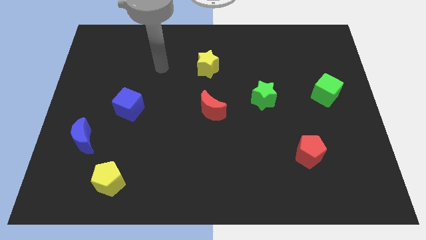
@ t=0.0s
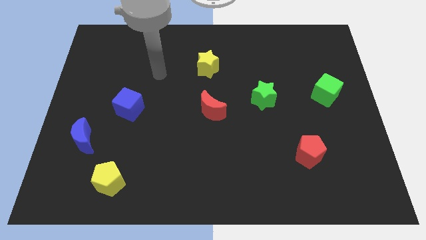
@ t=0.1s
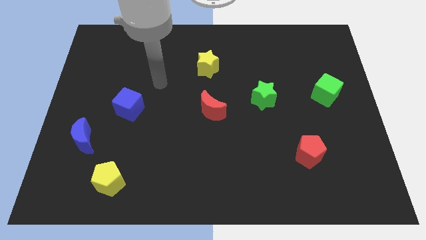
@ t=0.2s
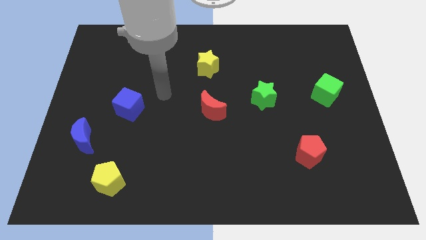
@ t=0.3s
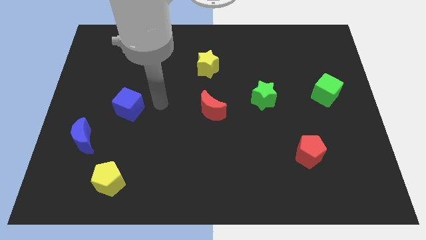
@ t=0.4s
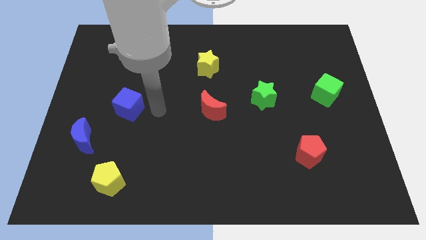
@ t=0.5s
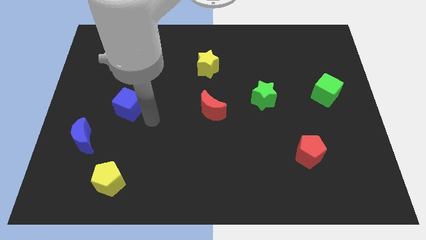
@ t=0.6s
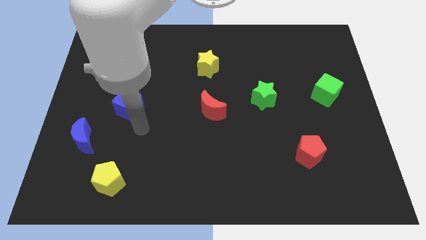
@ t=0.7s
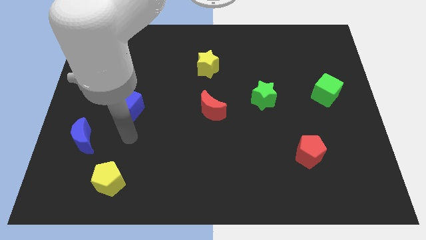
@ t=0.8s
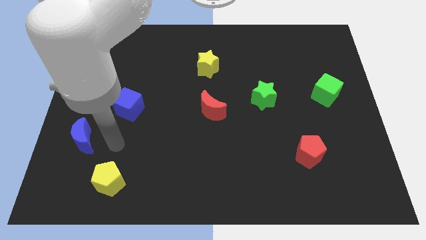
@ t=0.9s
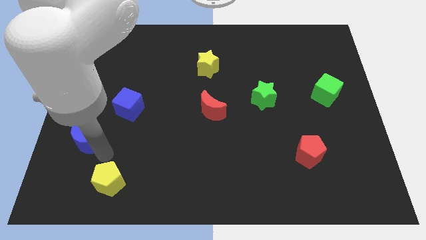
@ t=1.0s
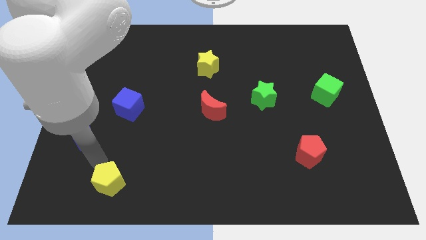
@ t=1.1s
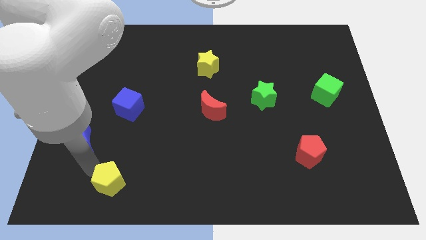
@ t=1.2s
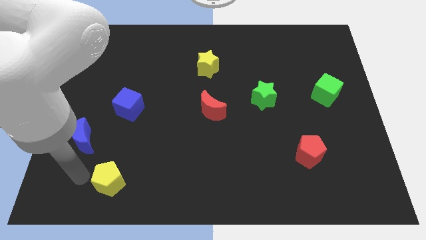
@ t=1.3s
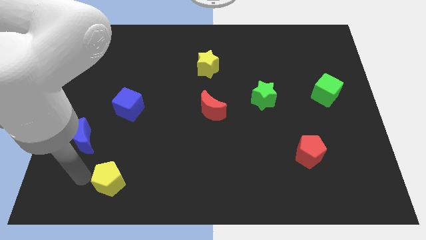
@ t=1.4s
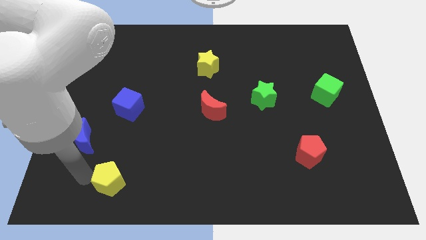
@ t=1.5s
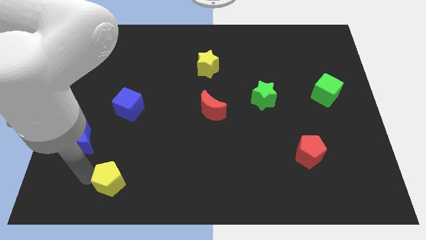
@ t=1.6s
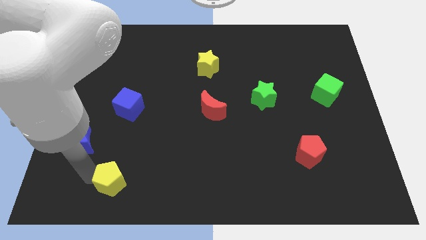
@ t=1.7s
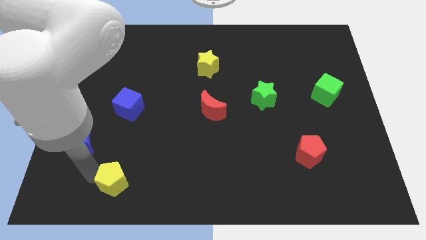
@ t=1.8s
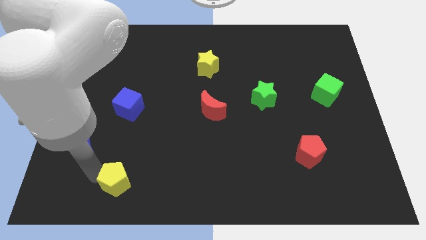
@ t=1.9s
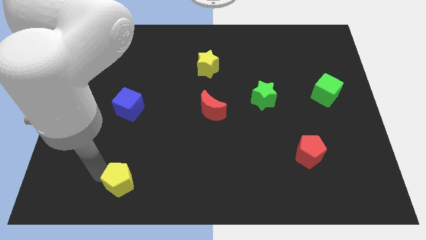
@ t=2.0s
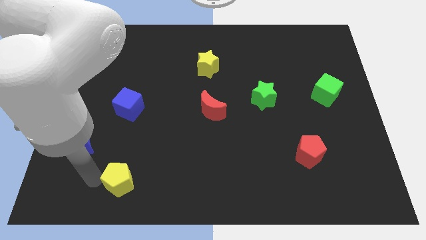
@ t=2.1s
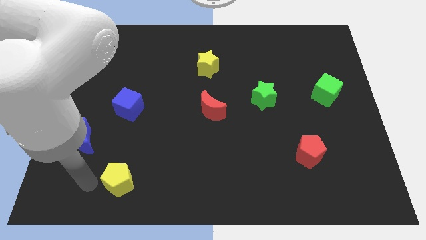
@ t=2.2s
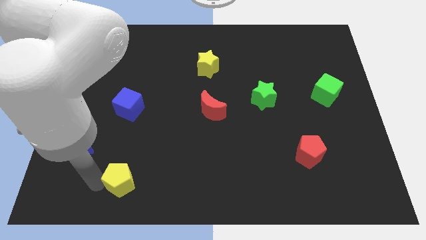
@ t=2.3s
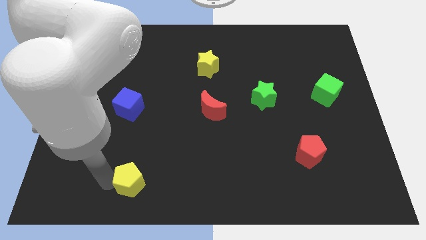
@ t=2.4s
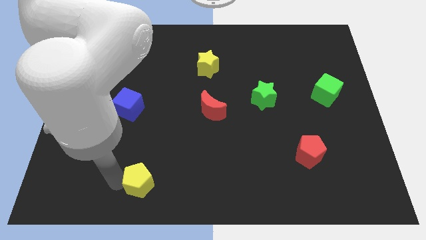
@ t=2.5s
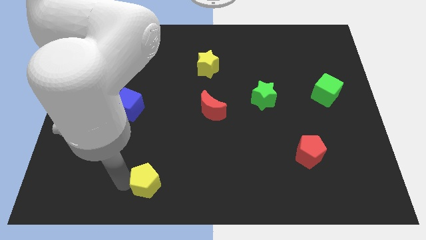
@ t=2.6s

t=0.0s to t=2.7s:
slide the yellow pentagon right slightly

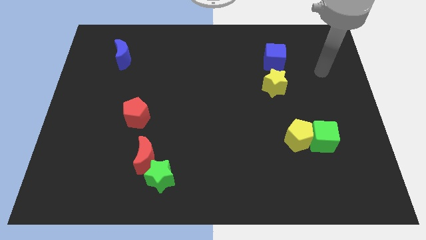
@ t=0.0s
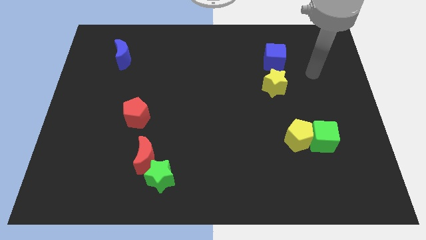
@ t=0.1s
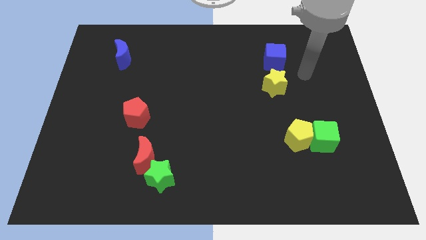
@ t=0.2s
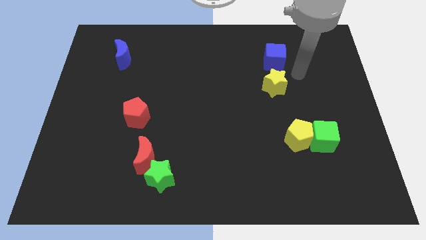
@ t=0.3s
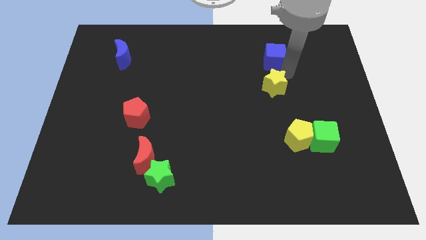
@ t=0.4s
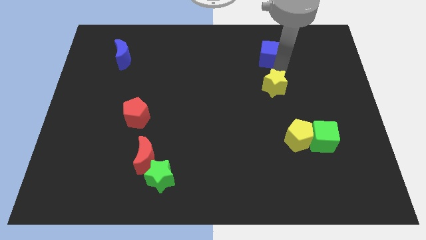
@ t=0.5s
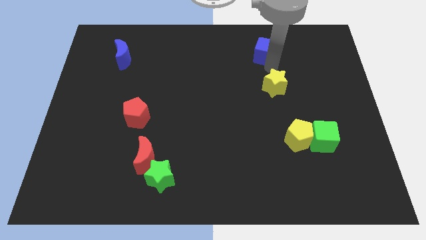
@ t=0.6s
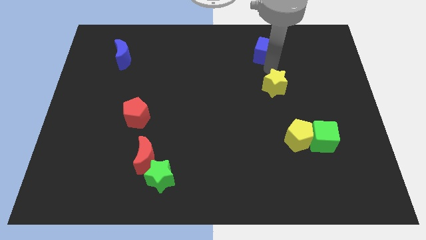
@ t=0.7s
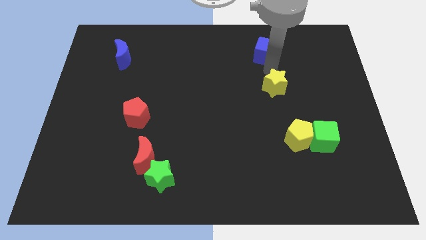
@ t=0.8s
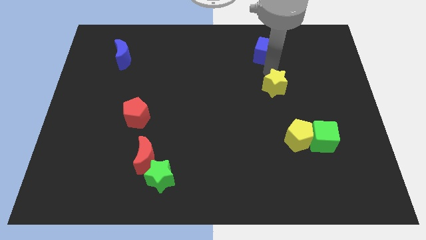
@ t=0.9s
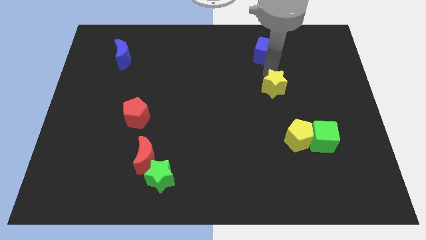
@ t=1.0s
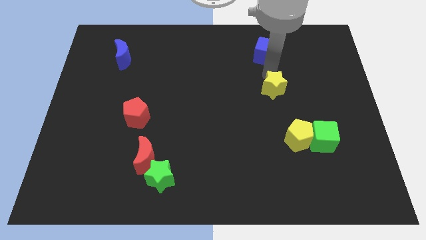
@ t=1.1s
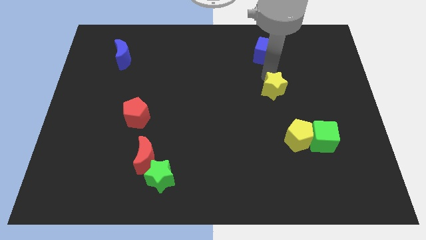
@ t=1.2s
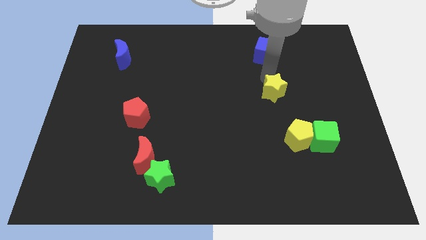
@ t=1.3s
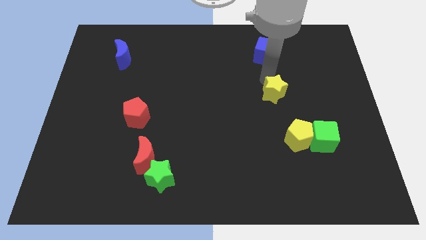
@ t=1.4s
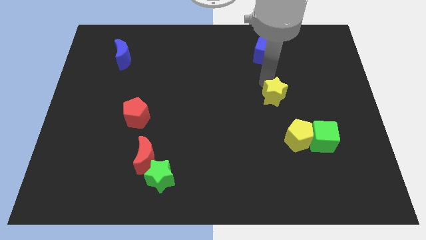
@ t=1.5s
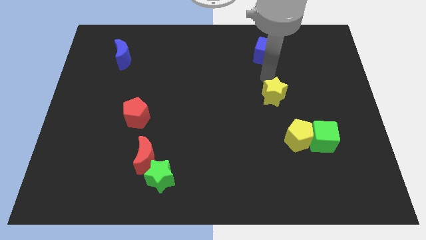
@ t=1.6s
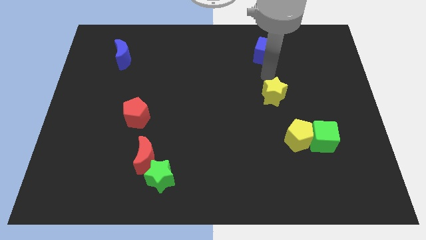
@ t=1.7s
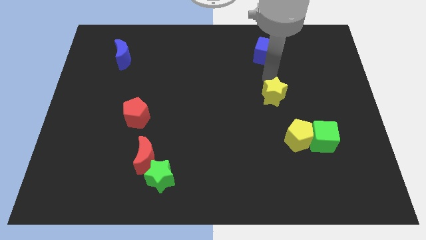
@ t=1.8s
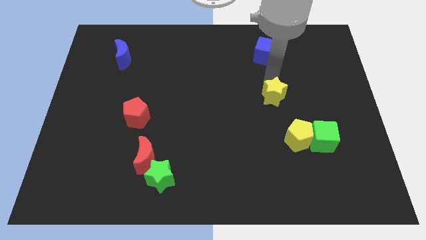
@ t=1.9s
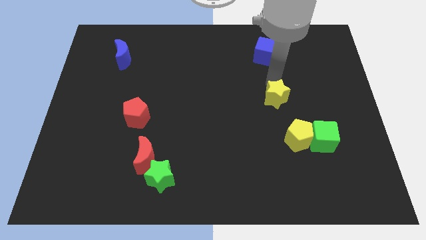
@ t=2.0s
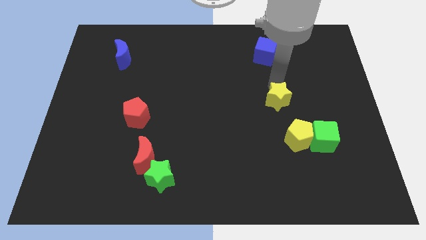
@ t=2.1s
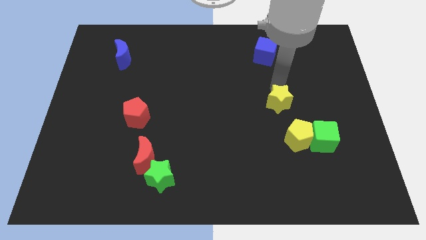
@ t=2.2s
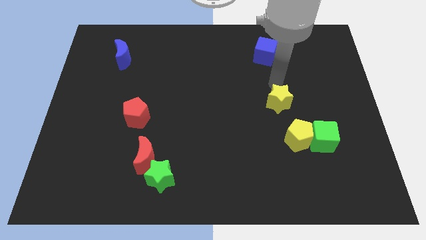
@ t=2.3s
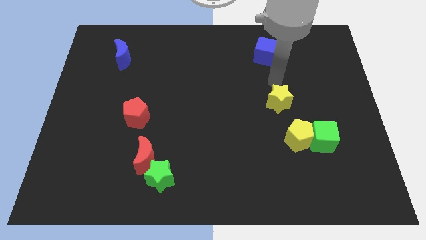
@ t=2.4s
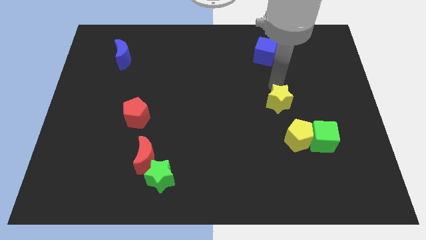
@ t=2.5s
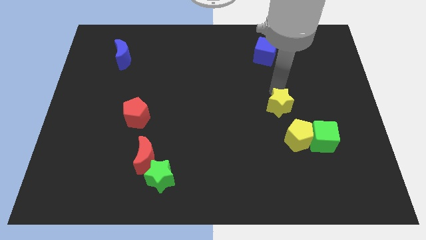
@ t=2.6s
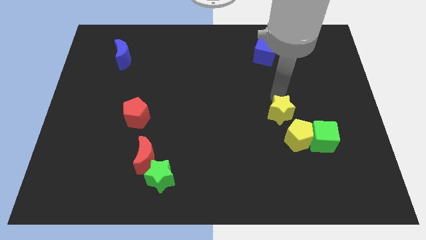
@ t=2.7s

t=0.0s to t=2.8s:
slide the yellow star down a little bit

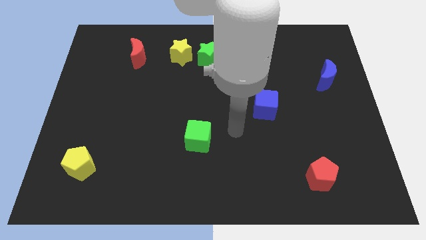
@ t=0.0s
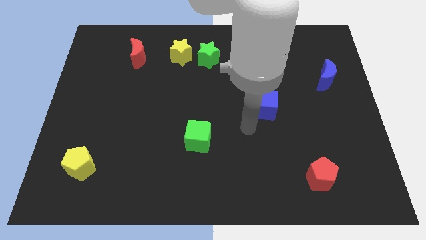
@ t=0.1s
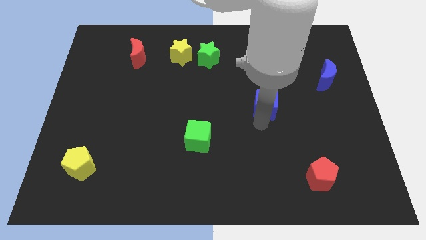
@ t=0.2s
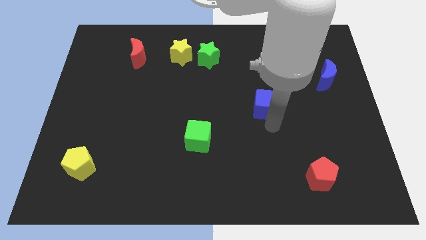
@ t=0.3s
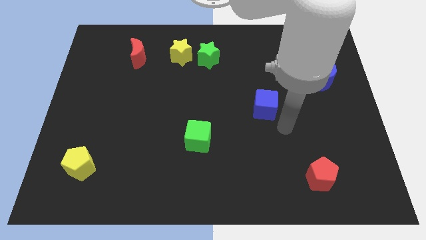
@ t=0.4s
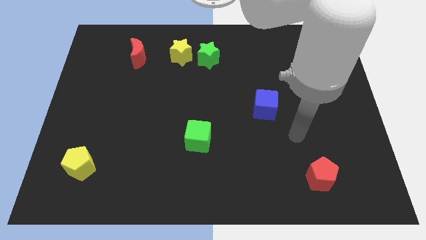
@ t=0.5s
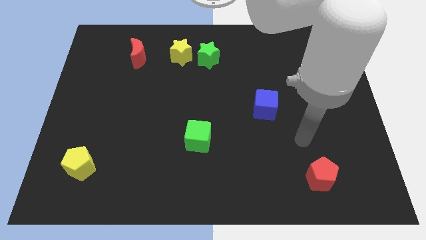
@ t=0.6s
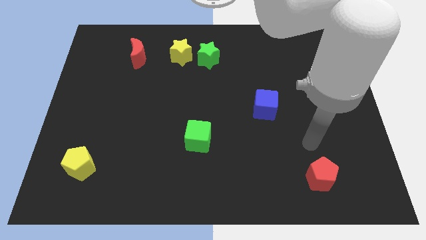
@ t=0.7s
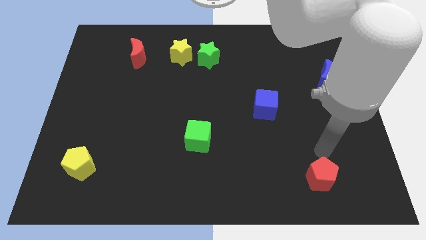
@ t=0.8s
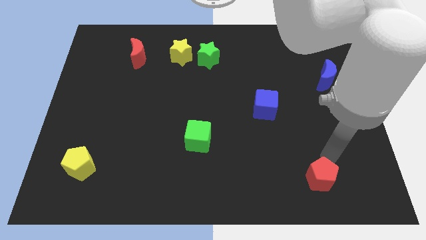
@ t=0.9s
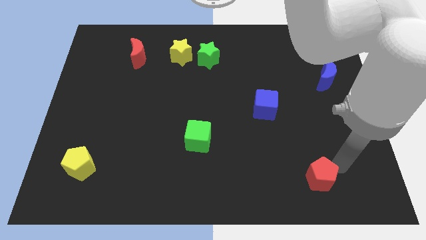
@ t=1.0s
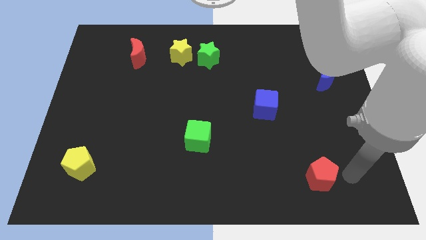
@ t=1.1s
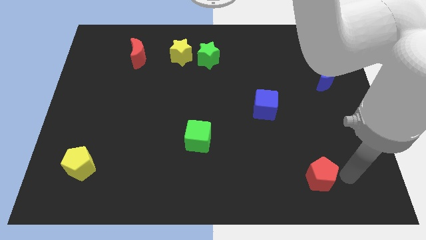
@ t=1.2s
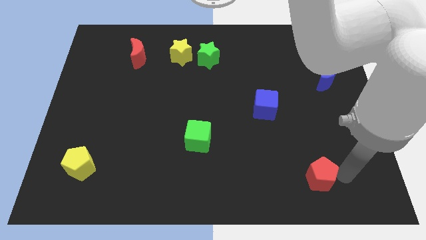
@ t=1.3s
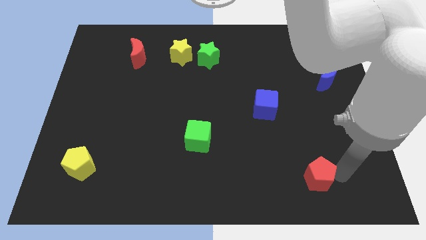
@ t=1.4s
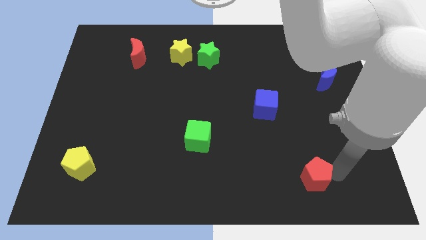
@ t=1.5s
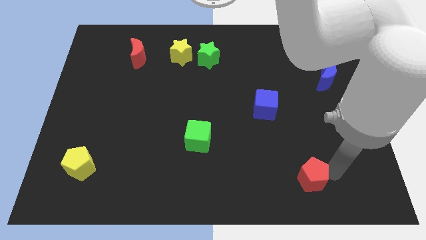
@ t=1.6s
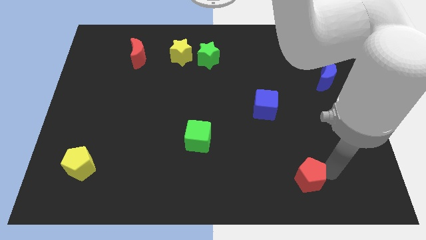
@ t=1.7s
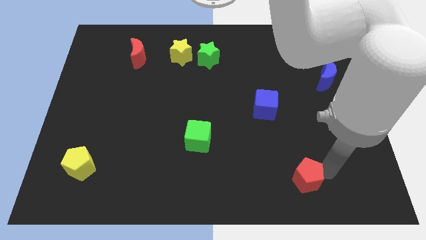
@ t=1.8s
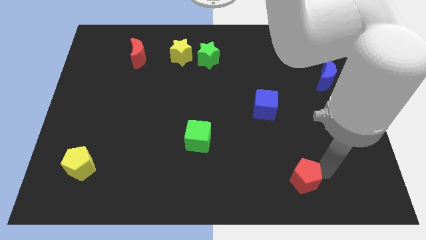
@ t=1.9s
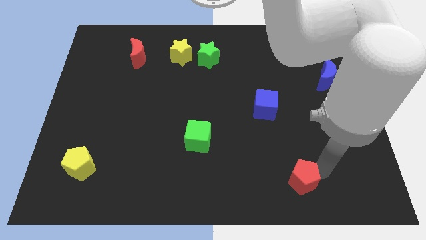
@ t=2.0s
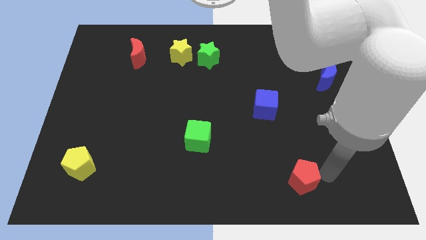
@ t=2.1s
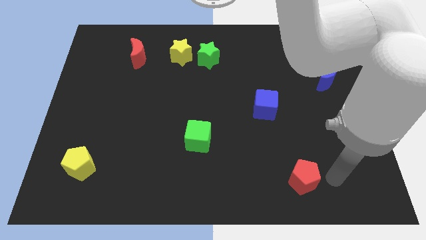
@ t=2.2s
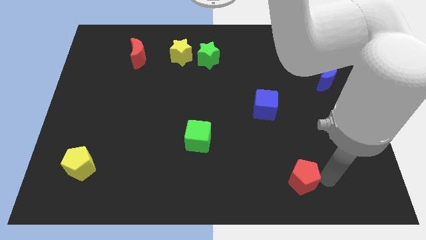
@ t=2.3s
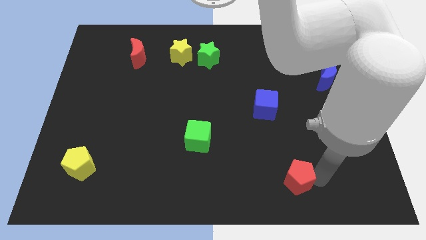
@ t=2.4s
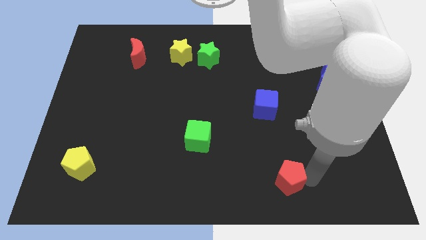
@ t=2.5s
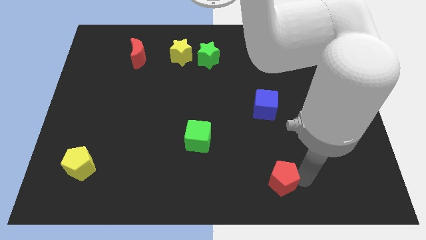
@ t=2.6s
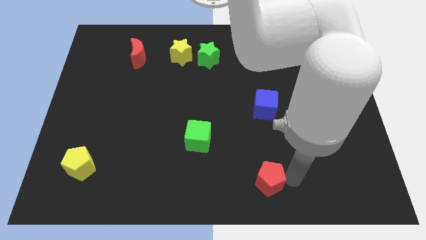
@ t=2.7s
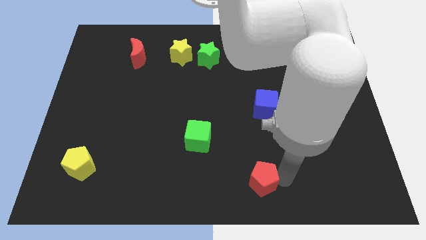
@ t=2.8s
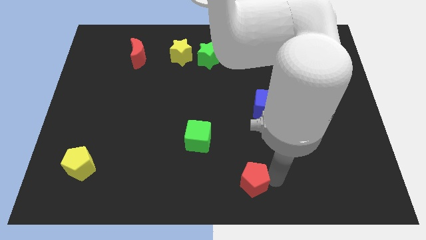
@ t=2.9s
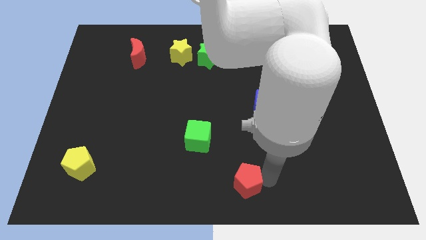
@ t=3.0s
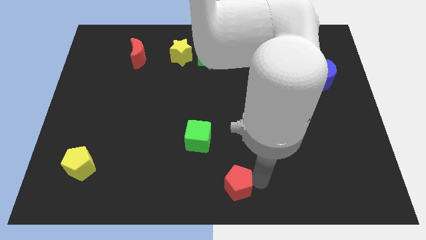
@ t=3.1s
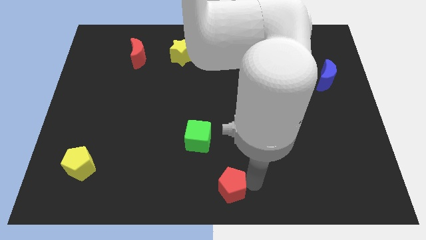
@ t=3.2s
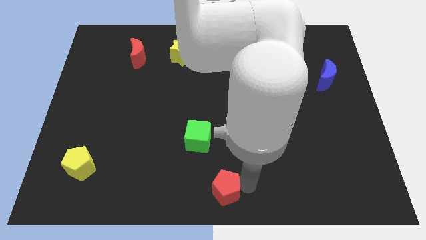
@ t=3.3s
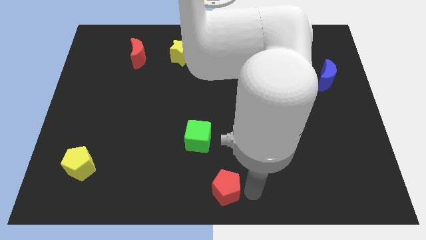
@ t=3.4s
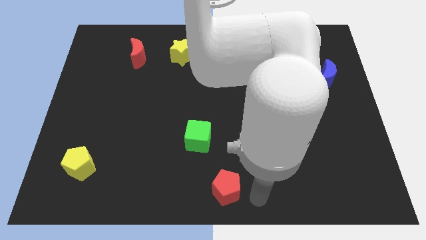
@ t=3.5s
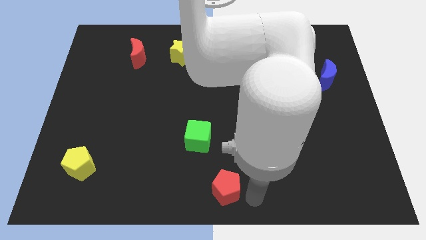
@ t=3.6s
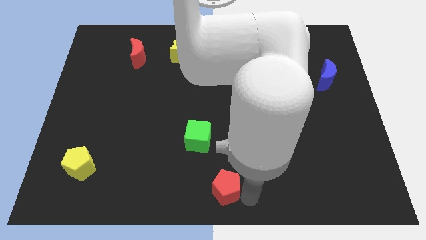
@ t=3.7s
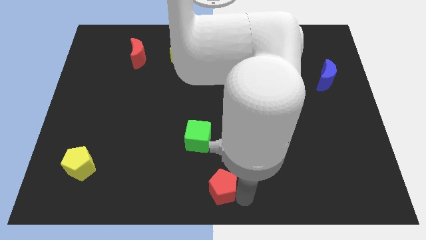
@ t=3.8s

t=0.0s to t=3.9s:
push the red pentagon left
